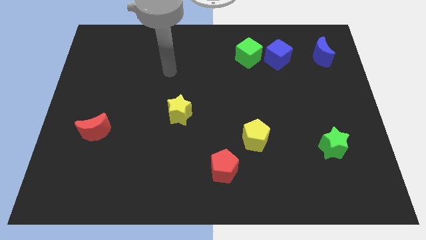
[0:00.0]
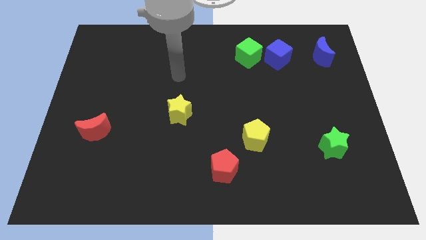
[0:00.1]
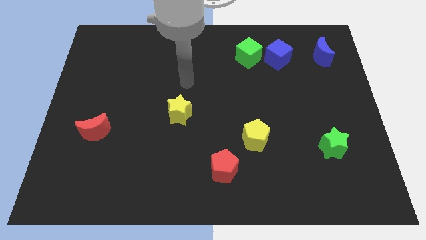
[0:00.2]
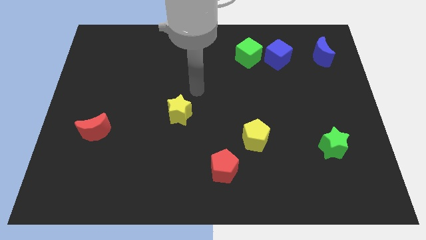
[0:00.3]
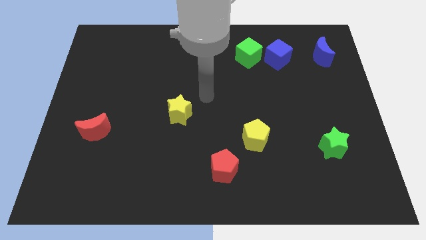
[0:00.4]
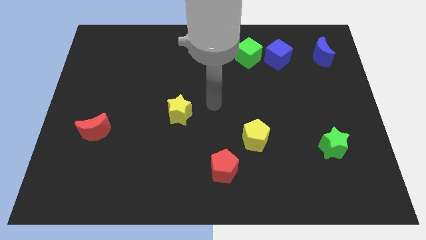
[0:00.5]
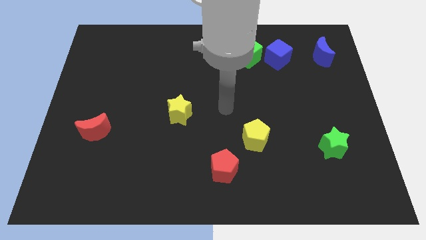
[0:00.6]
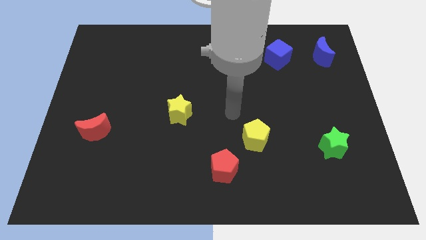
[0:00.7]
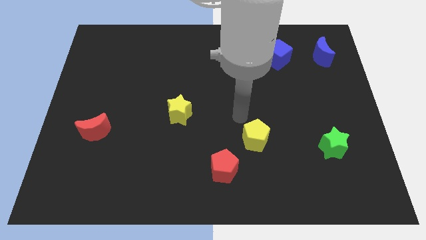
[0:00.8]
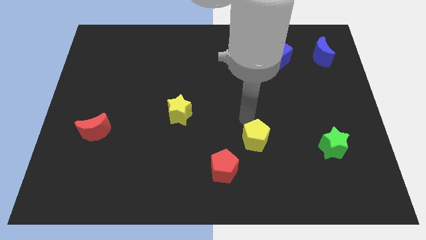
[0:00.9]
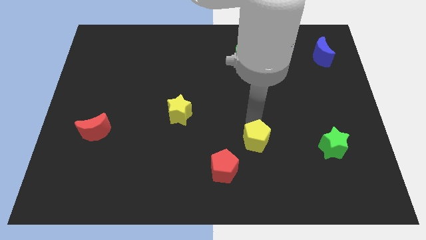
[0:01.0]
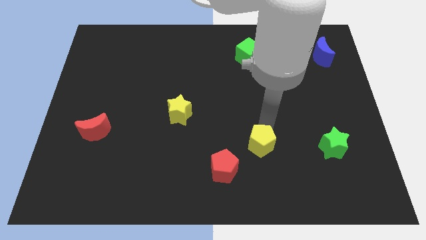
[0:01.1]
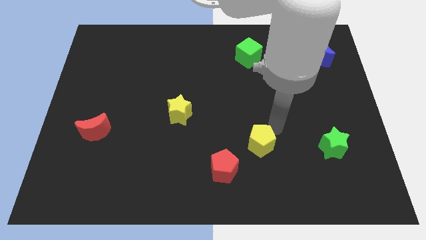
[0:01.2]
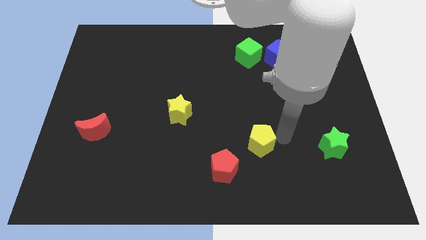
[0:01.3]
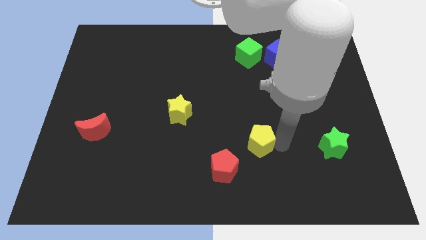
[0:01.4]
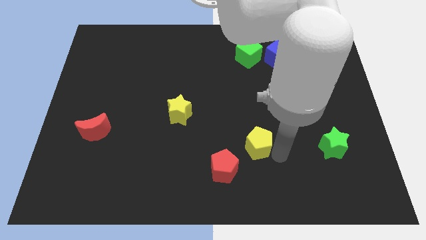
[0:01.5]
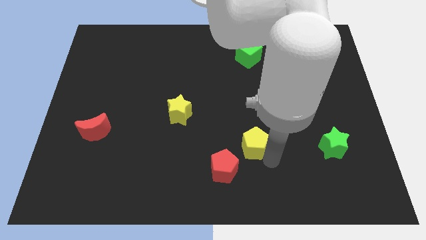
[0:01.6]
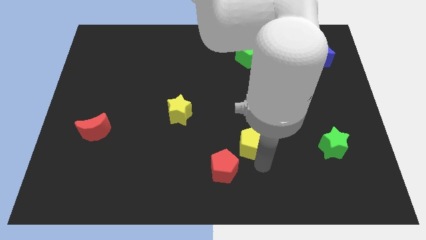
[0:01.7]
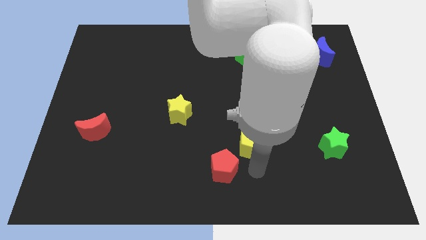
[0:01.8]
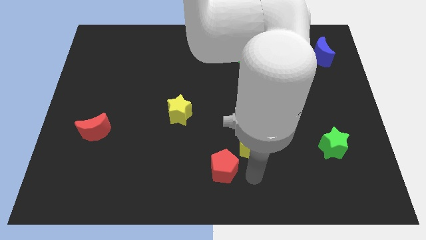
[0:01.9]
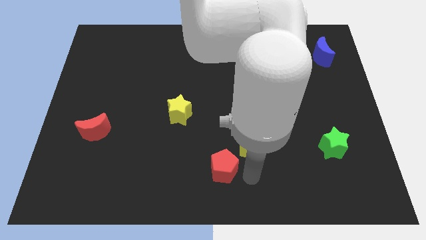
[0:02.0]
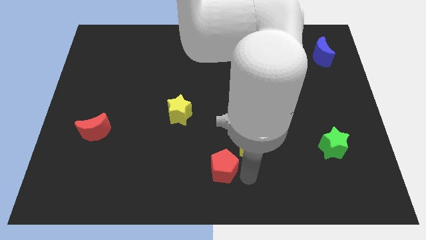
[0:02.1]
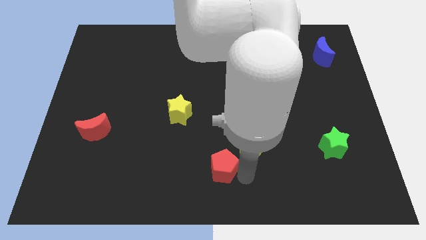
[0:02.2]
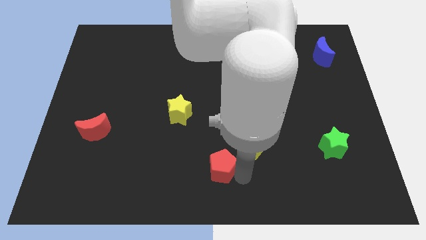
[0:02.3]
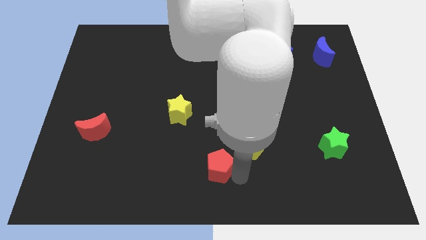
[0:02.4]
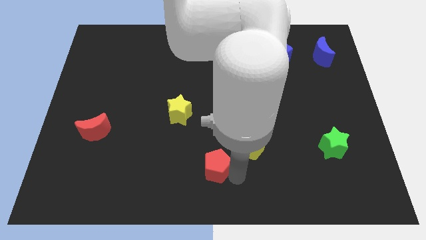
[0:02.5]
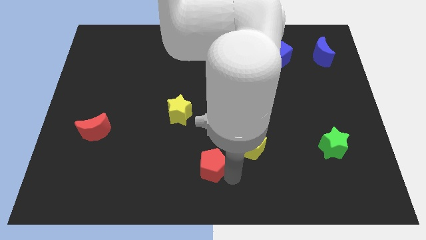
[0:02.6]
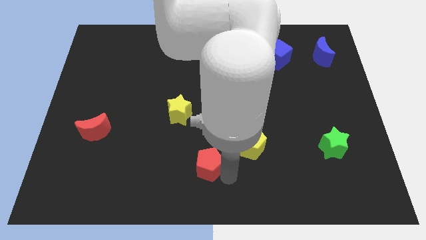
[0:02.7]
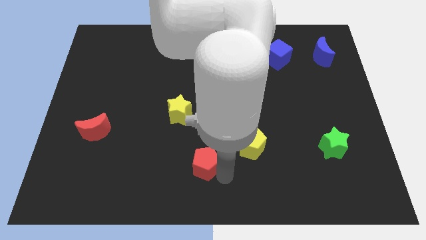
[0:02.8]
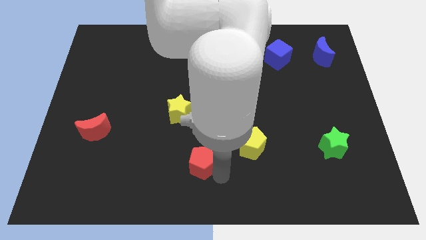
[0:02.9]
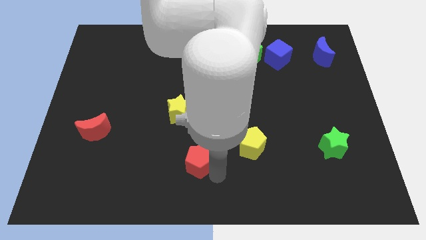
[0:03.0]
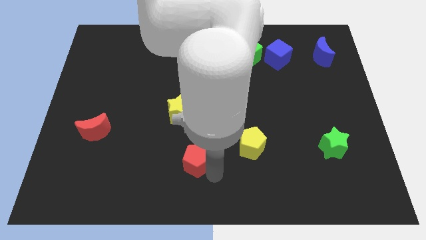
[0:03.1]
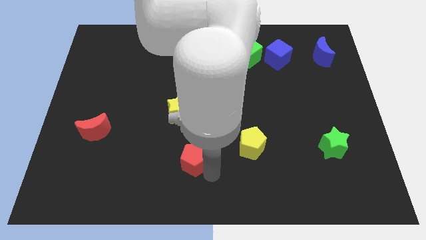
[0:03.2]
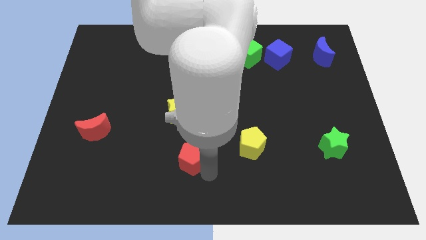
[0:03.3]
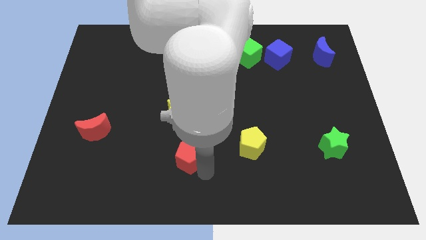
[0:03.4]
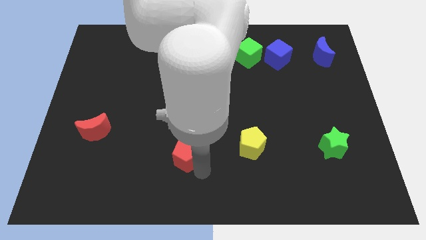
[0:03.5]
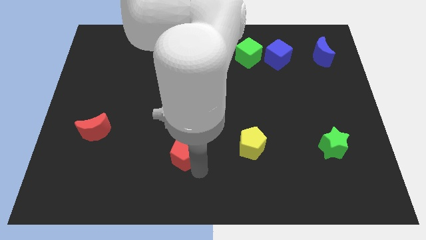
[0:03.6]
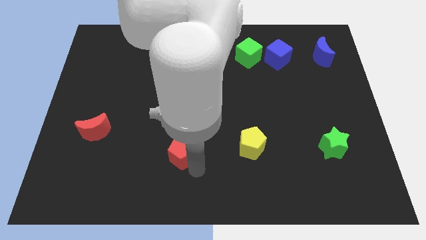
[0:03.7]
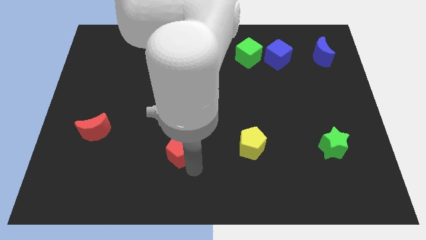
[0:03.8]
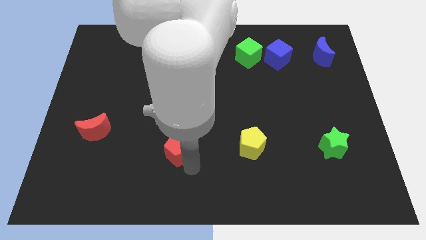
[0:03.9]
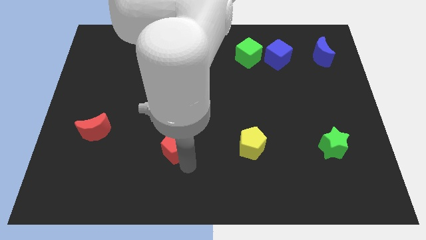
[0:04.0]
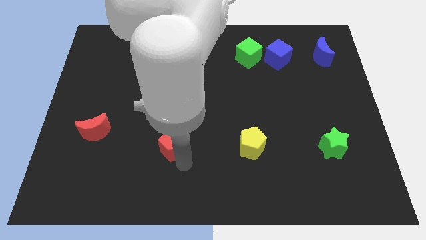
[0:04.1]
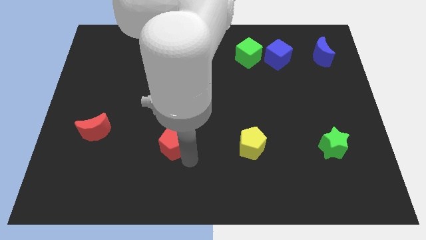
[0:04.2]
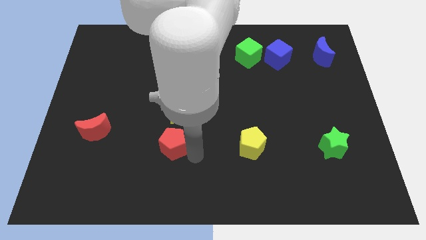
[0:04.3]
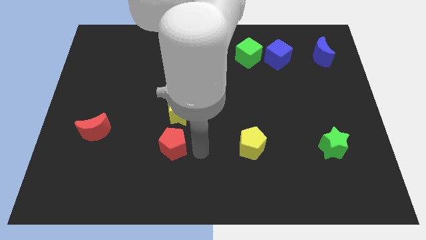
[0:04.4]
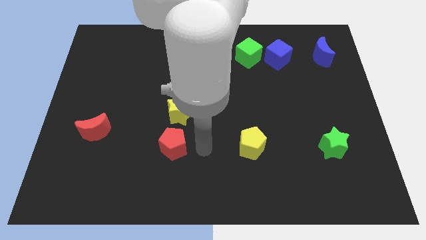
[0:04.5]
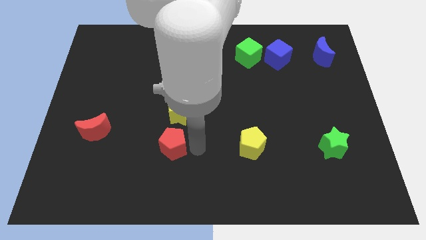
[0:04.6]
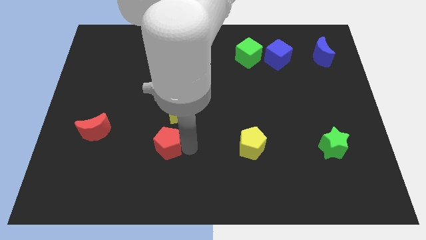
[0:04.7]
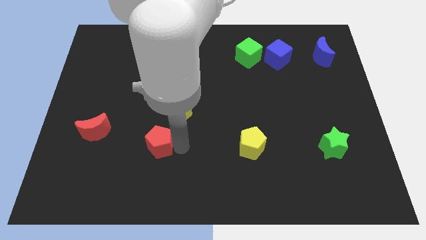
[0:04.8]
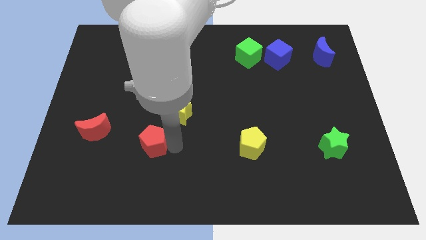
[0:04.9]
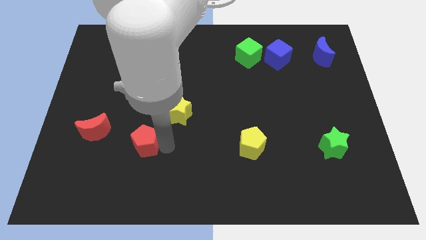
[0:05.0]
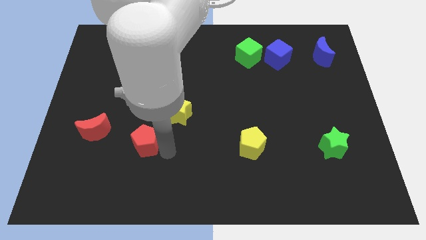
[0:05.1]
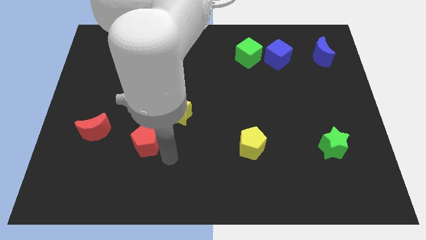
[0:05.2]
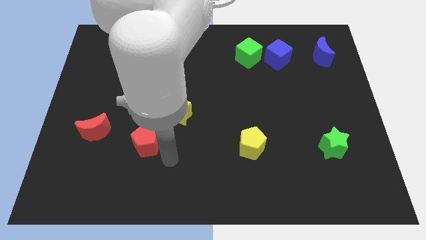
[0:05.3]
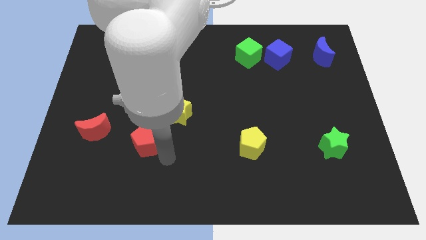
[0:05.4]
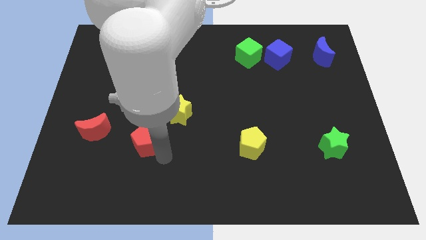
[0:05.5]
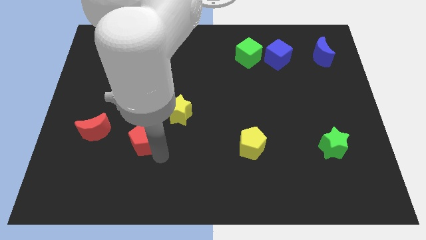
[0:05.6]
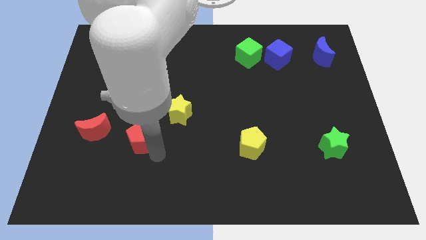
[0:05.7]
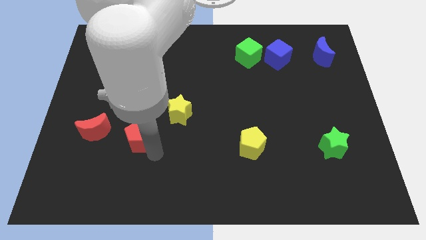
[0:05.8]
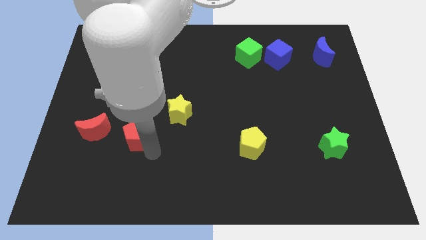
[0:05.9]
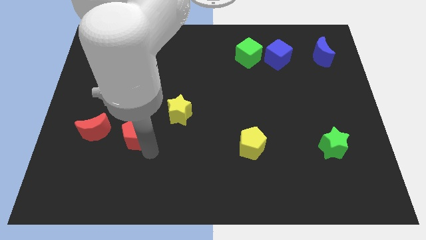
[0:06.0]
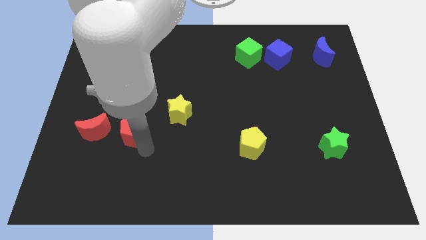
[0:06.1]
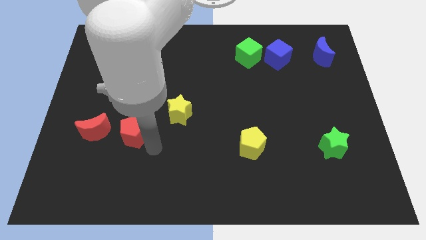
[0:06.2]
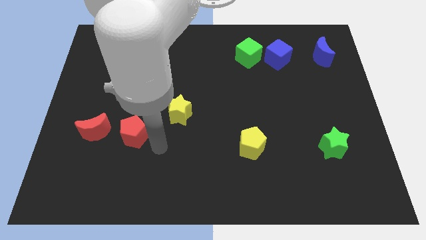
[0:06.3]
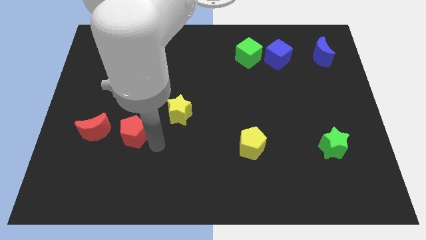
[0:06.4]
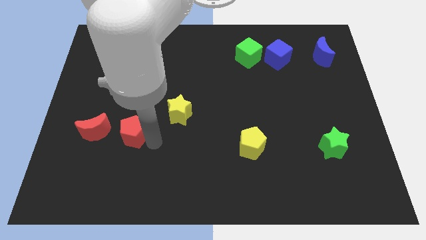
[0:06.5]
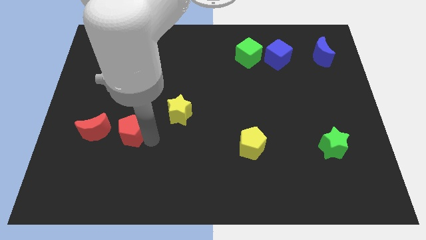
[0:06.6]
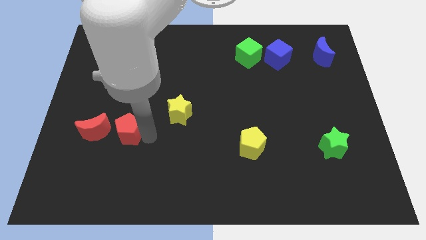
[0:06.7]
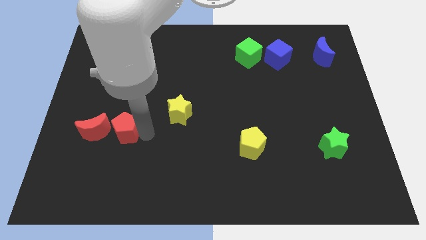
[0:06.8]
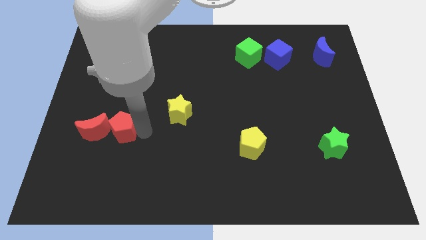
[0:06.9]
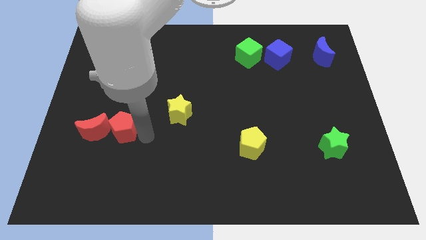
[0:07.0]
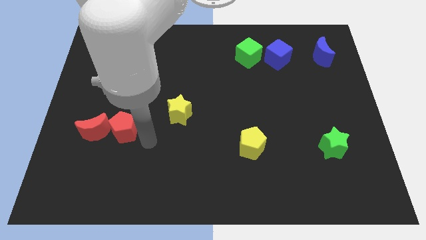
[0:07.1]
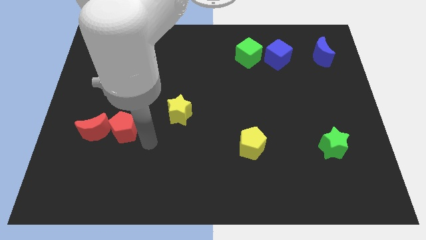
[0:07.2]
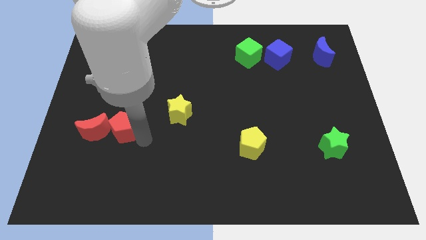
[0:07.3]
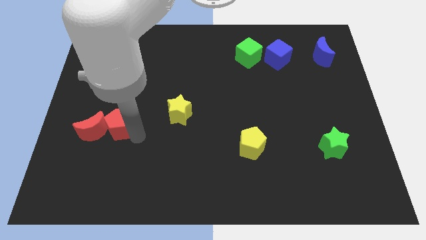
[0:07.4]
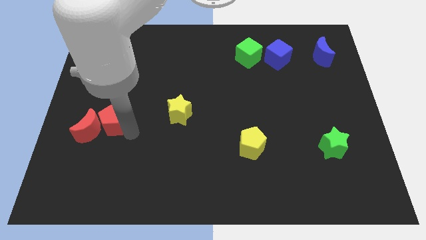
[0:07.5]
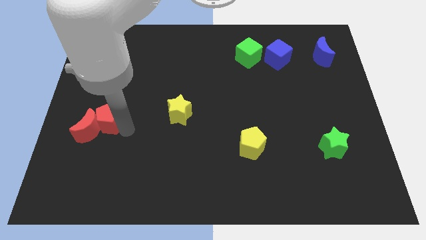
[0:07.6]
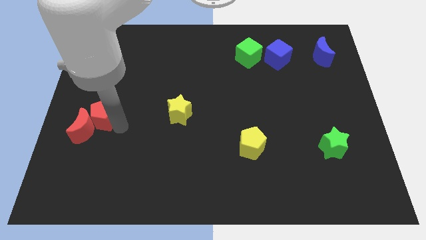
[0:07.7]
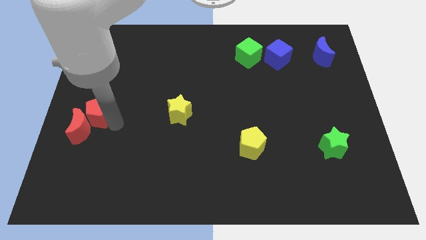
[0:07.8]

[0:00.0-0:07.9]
put the red pentagon to the left side
